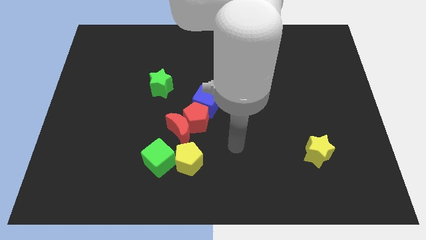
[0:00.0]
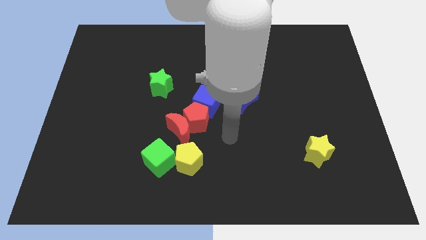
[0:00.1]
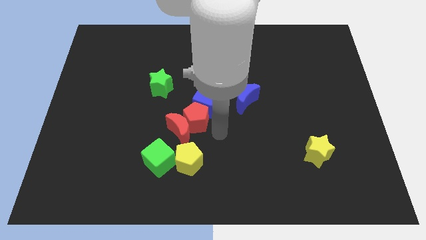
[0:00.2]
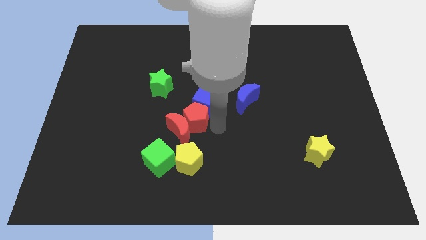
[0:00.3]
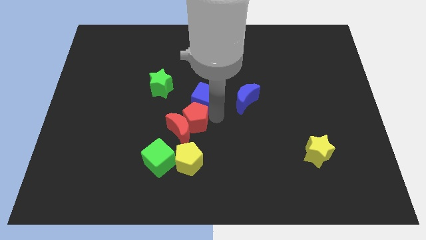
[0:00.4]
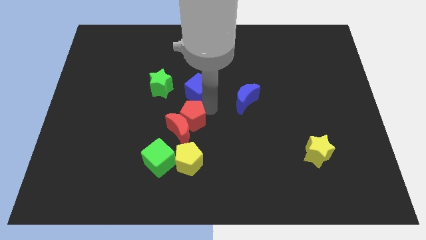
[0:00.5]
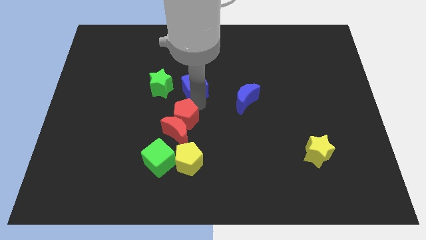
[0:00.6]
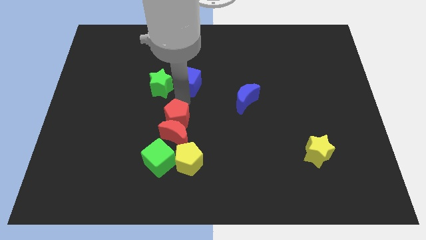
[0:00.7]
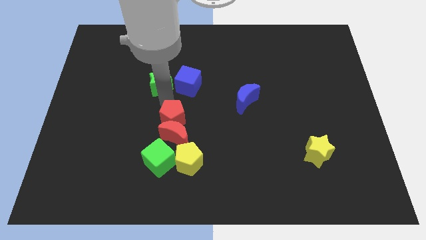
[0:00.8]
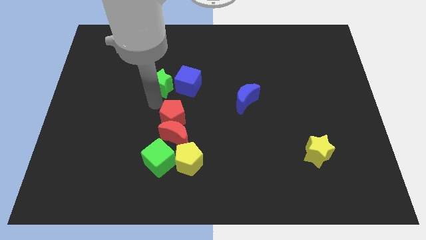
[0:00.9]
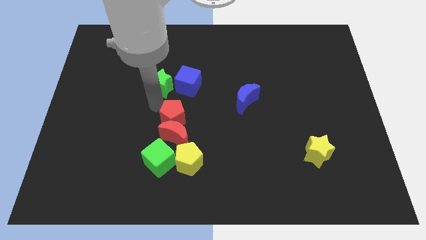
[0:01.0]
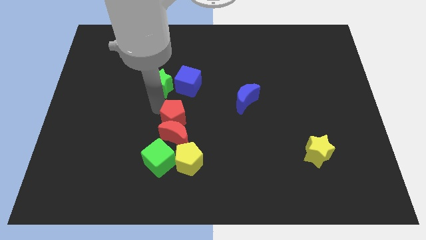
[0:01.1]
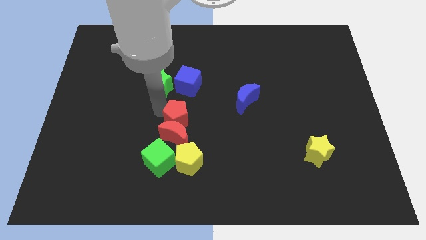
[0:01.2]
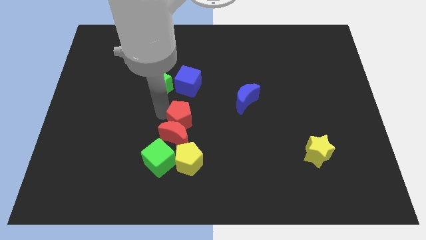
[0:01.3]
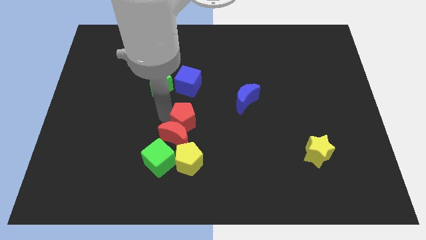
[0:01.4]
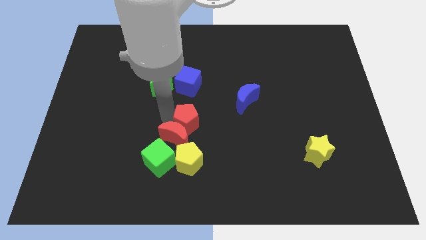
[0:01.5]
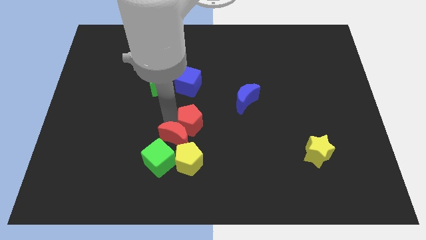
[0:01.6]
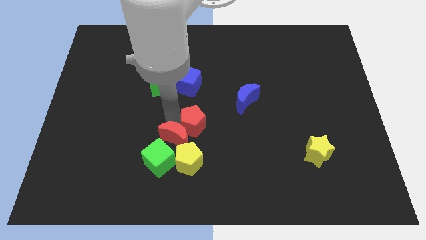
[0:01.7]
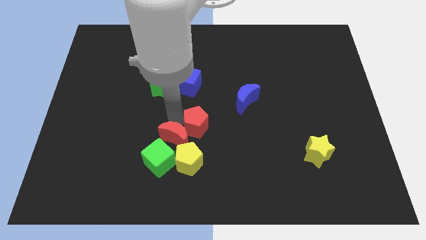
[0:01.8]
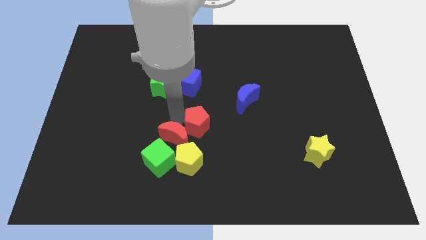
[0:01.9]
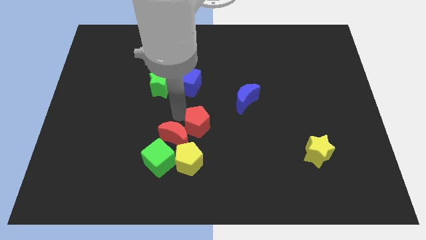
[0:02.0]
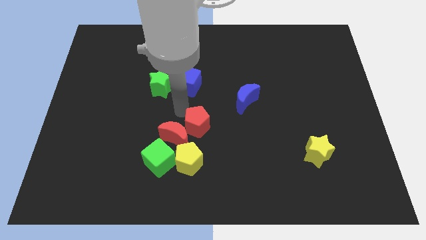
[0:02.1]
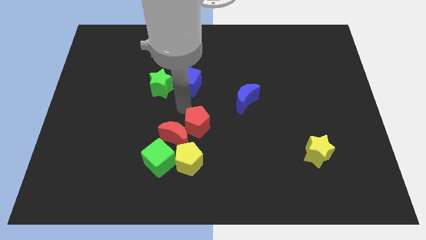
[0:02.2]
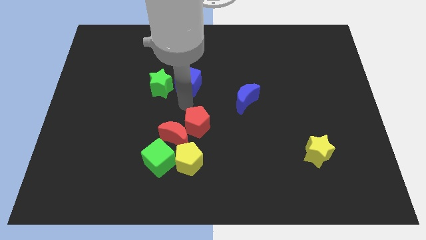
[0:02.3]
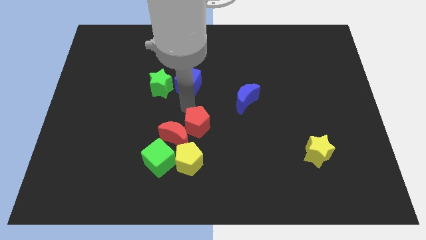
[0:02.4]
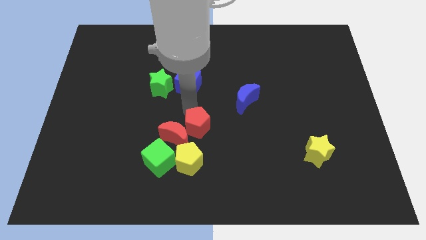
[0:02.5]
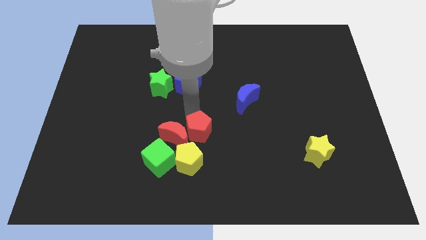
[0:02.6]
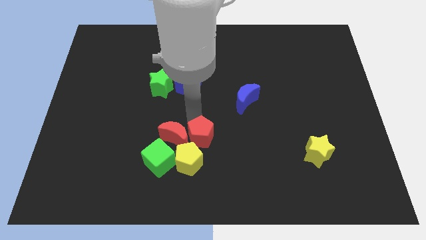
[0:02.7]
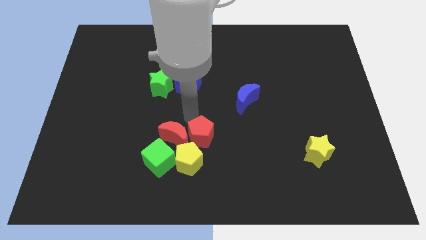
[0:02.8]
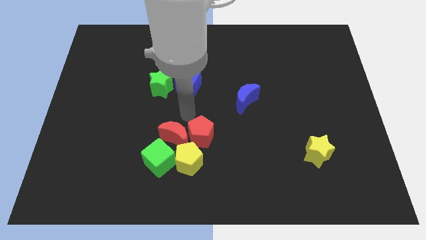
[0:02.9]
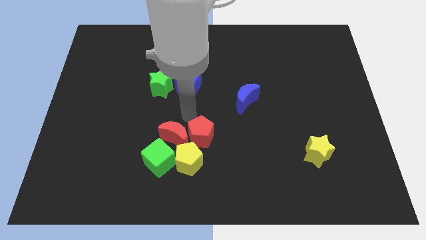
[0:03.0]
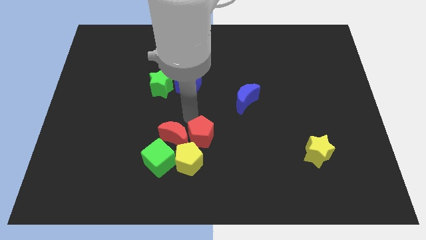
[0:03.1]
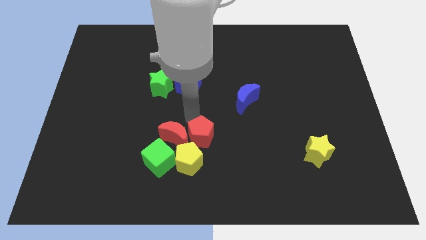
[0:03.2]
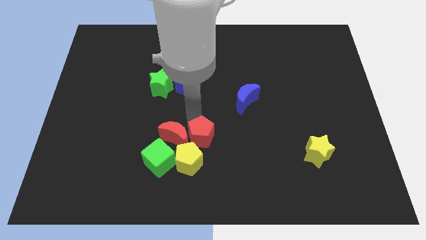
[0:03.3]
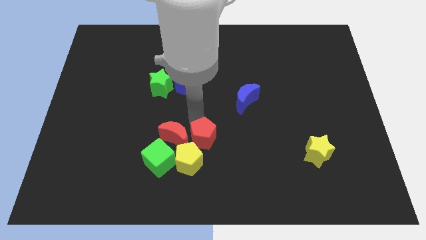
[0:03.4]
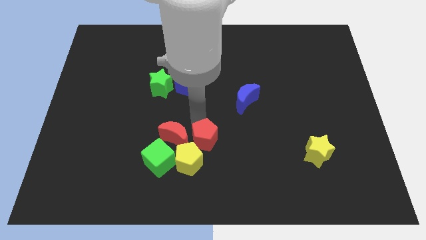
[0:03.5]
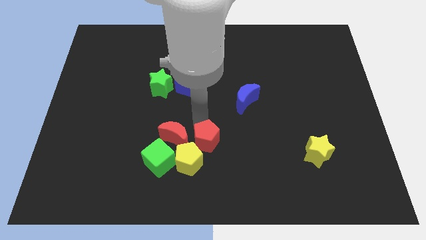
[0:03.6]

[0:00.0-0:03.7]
separate the red pentagon from the red moon and blue cube

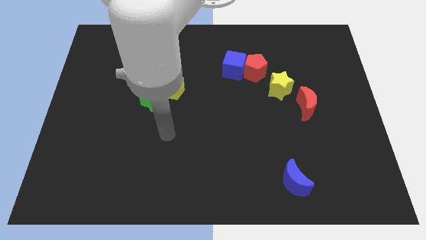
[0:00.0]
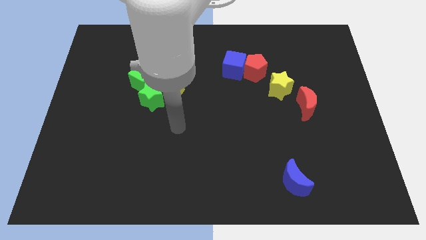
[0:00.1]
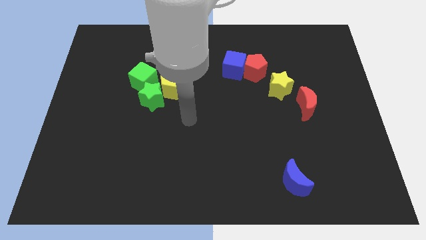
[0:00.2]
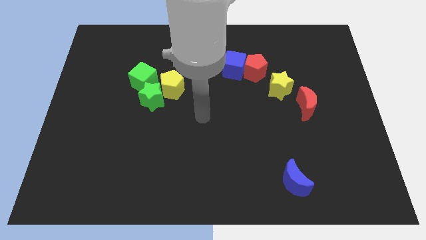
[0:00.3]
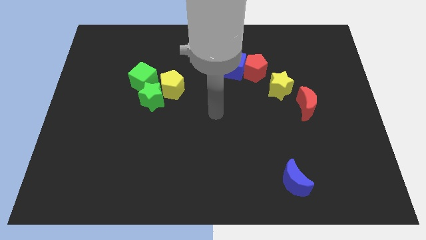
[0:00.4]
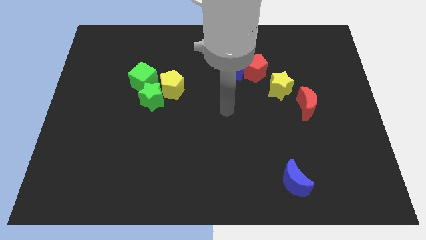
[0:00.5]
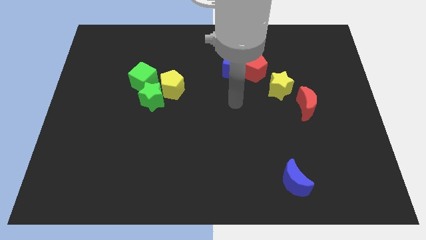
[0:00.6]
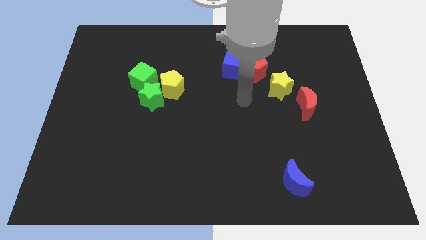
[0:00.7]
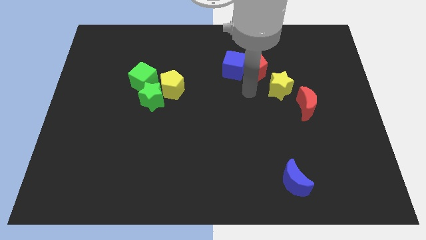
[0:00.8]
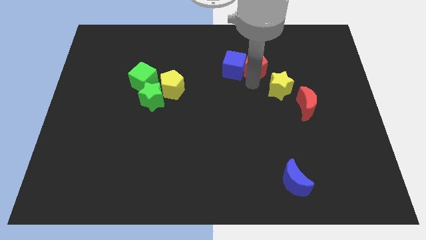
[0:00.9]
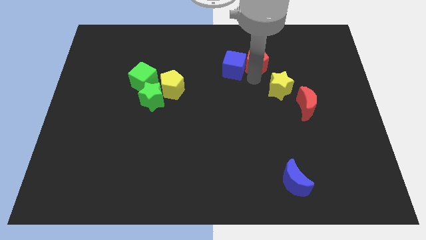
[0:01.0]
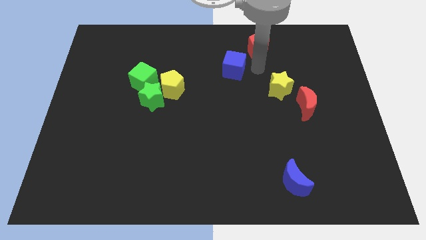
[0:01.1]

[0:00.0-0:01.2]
separate the blue cube from the red pentagon

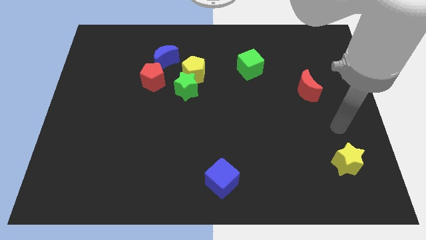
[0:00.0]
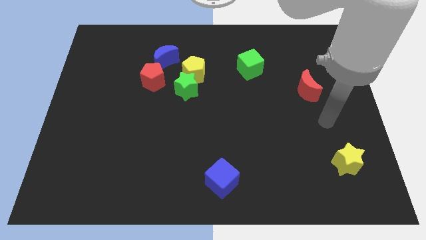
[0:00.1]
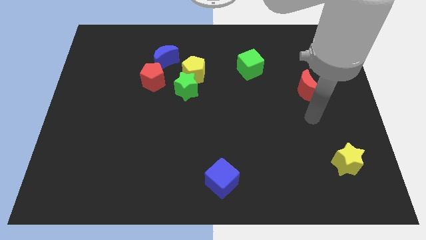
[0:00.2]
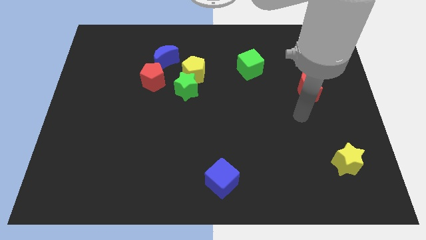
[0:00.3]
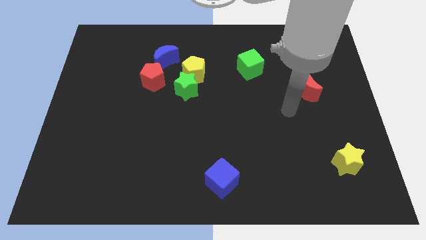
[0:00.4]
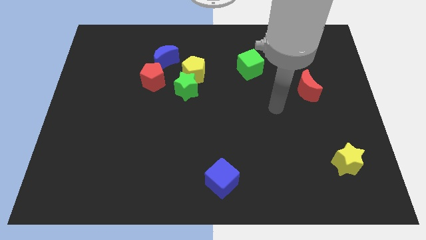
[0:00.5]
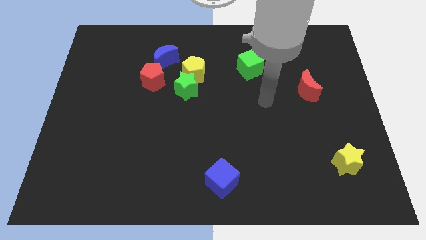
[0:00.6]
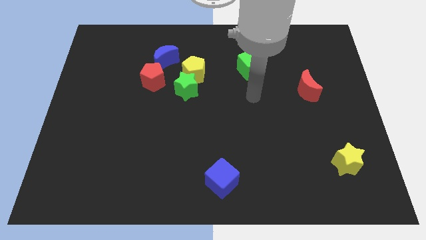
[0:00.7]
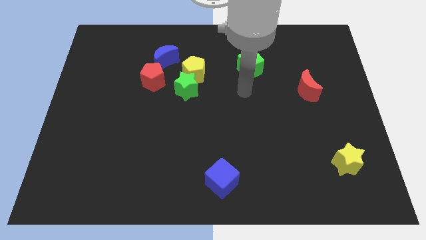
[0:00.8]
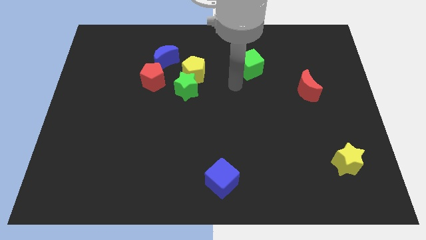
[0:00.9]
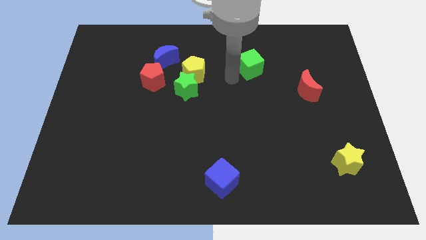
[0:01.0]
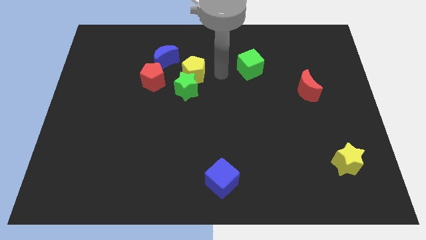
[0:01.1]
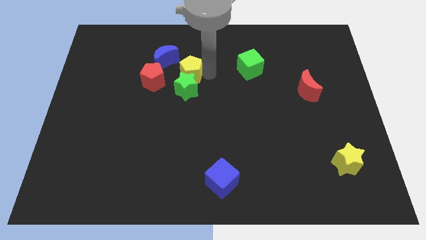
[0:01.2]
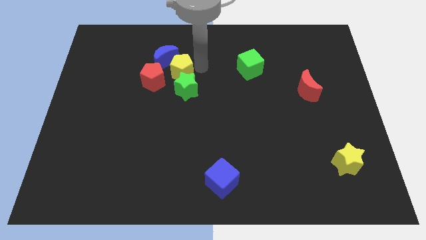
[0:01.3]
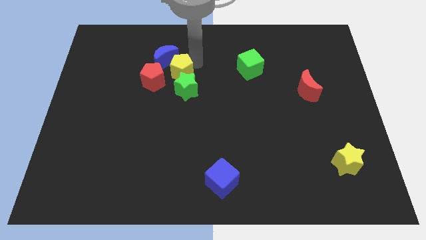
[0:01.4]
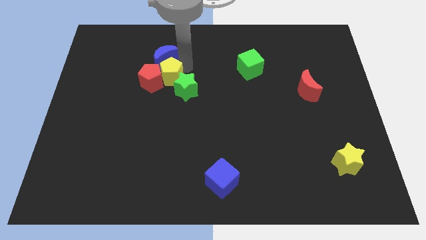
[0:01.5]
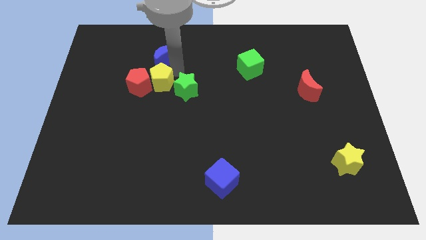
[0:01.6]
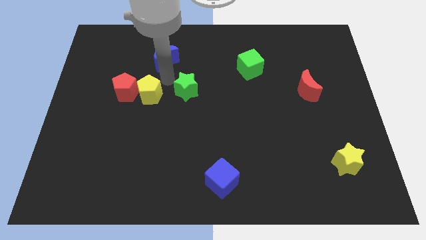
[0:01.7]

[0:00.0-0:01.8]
separate the green star from the yellow pentagon and red pentagon

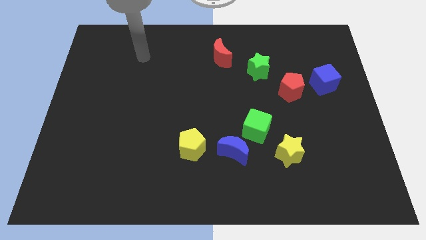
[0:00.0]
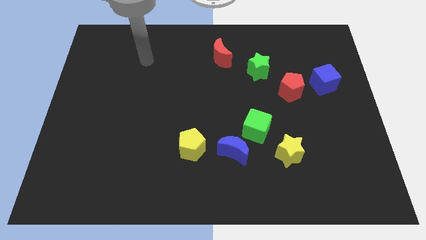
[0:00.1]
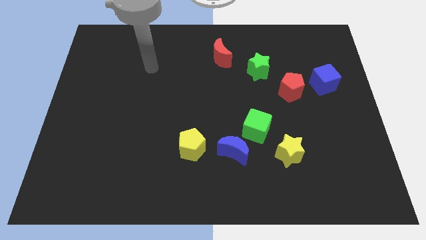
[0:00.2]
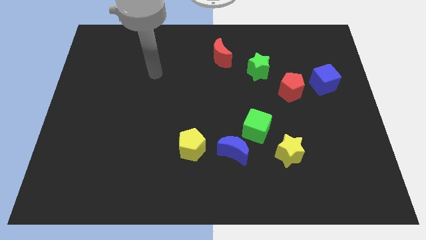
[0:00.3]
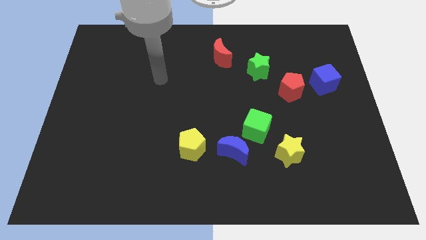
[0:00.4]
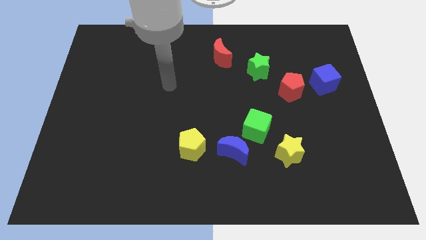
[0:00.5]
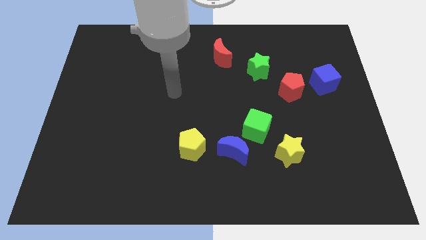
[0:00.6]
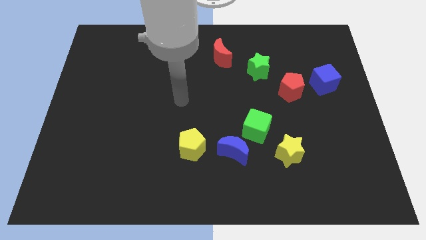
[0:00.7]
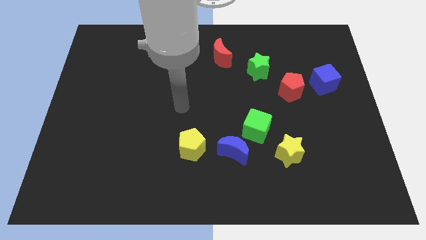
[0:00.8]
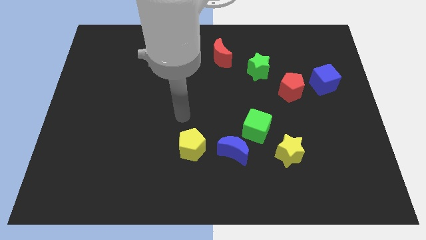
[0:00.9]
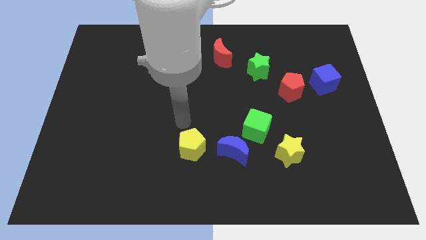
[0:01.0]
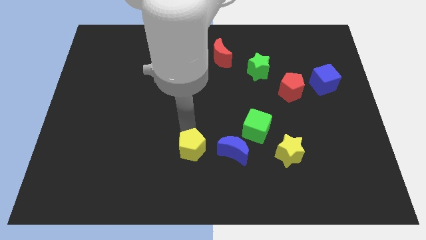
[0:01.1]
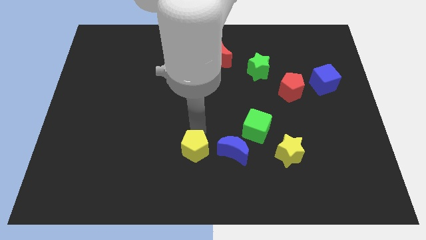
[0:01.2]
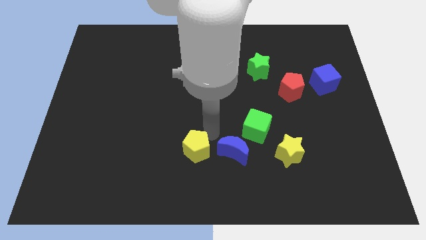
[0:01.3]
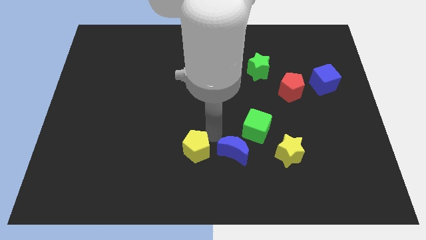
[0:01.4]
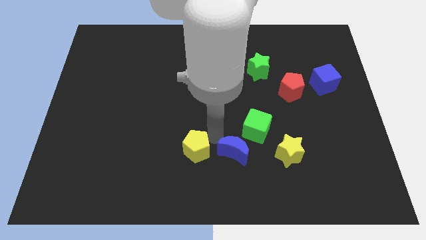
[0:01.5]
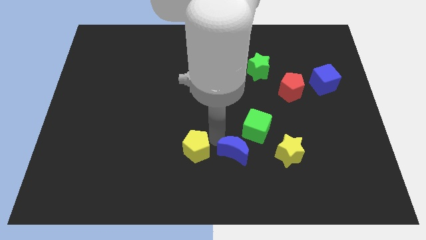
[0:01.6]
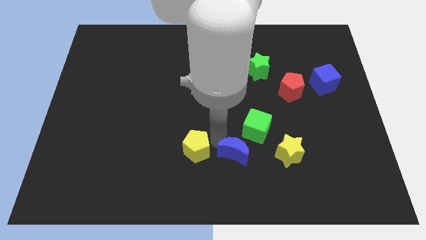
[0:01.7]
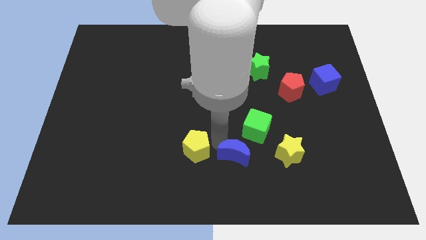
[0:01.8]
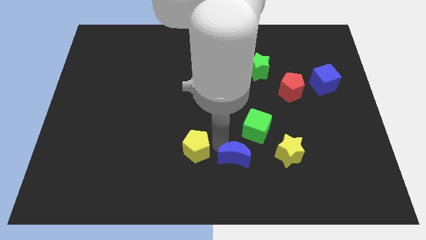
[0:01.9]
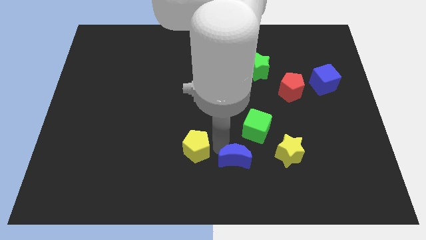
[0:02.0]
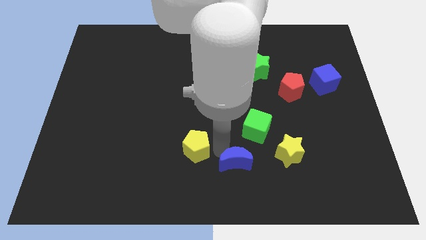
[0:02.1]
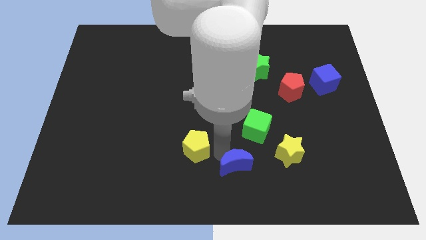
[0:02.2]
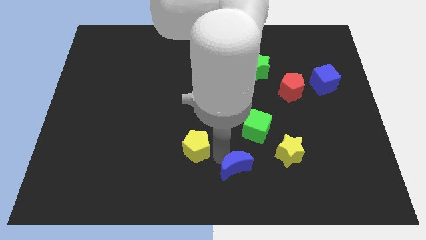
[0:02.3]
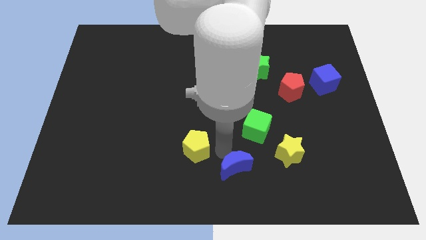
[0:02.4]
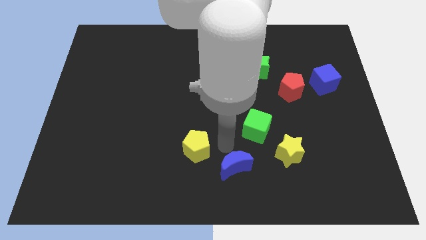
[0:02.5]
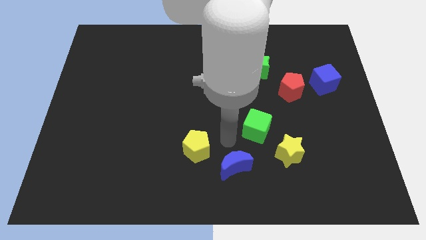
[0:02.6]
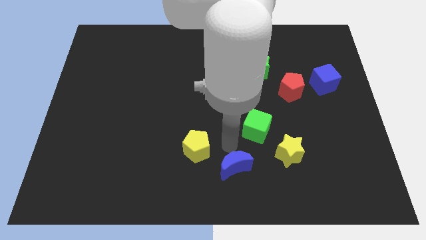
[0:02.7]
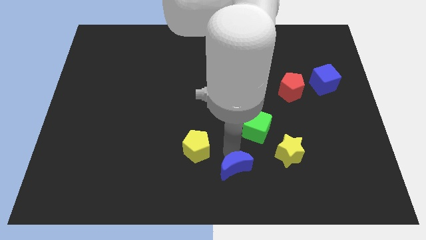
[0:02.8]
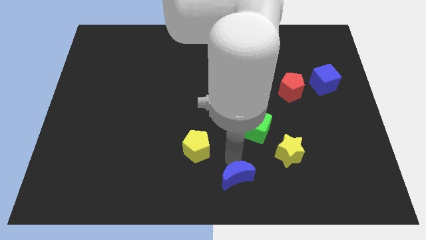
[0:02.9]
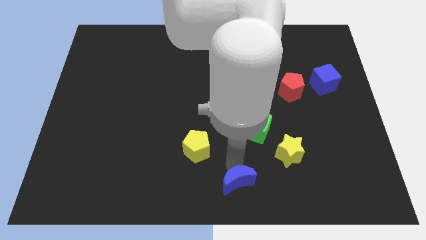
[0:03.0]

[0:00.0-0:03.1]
pull the blue moon apart from the green cube and yellow pentagon
